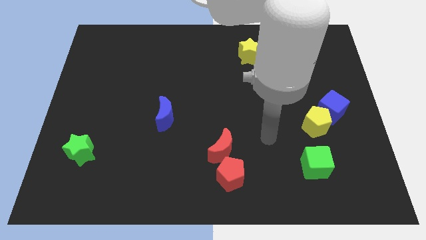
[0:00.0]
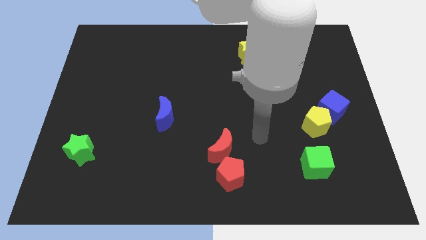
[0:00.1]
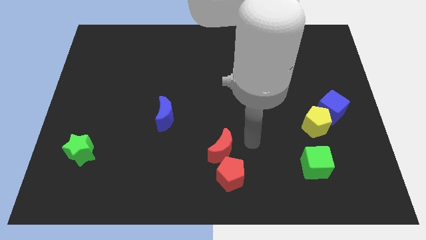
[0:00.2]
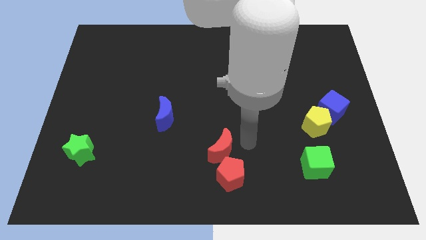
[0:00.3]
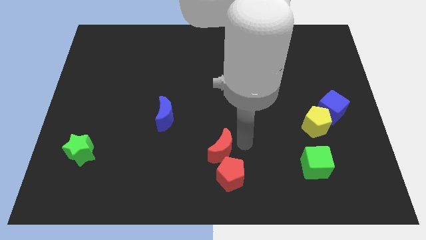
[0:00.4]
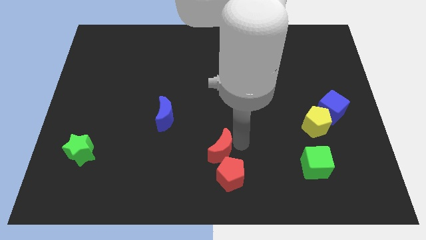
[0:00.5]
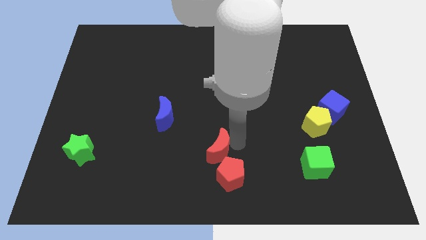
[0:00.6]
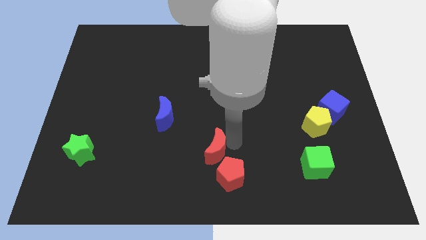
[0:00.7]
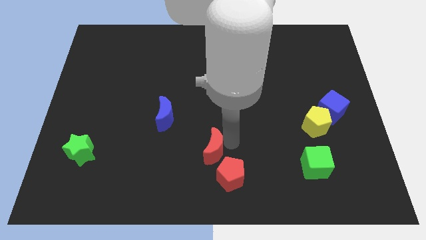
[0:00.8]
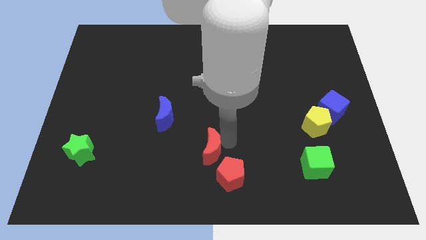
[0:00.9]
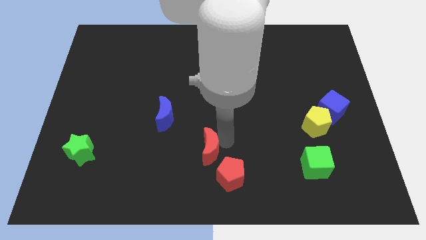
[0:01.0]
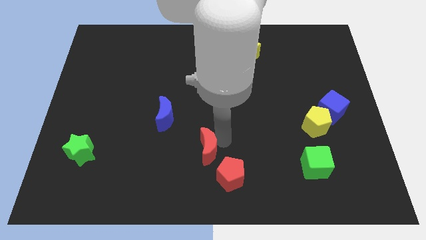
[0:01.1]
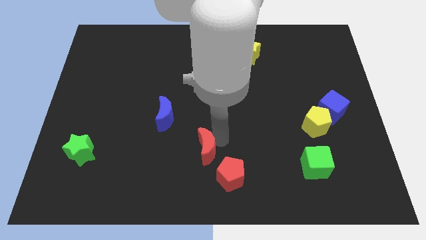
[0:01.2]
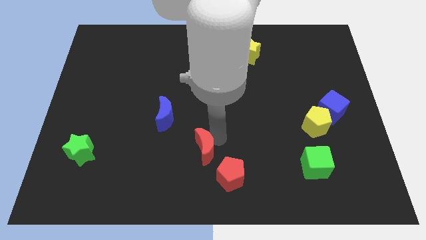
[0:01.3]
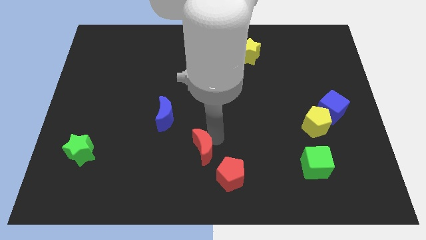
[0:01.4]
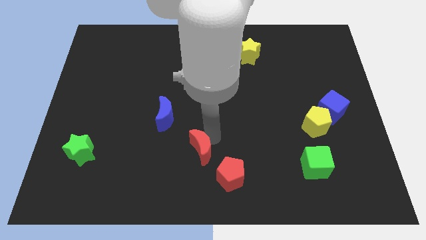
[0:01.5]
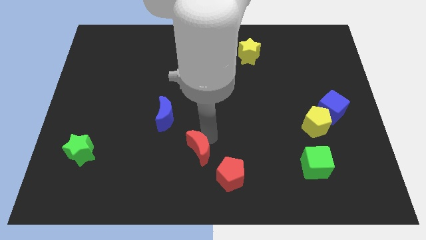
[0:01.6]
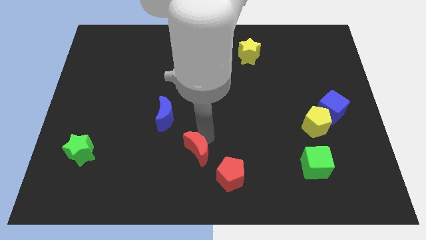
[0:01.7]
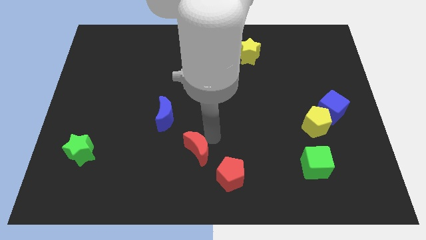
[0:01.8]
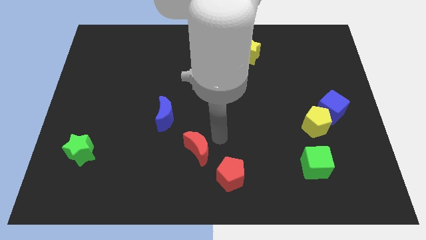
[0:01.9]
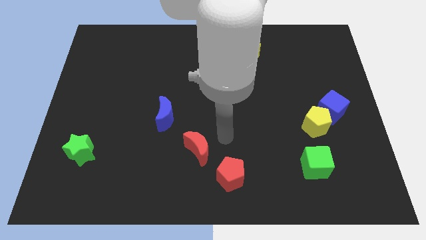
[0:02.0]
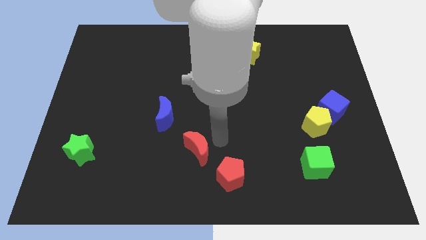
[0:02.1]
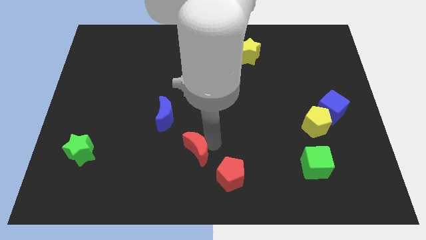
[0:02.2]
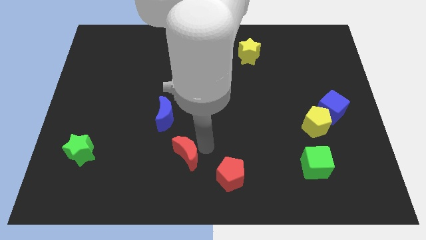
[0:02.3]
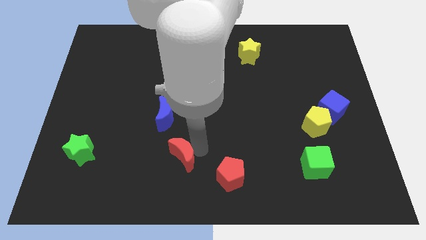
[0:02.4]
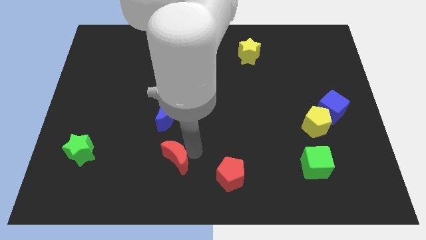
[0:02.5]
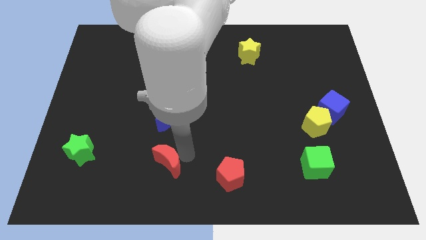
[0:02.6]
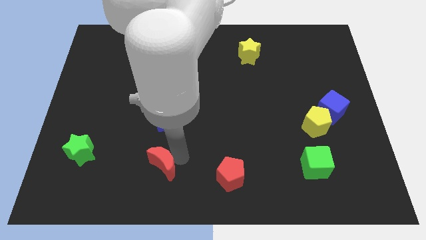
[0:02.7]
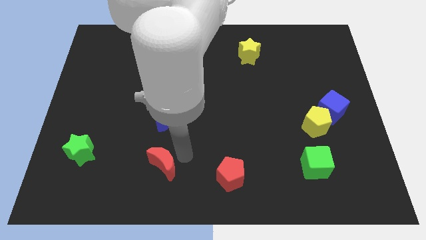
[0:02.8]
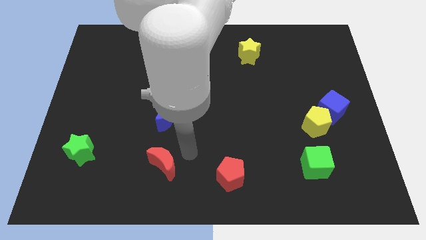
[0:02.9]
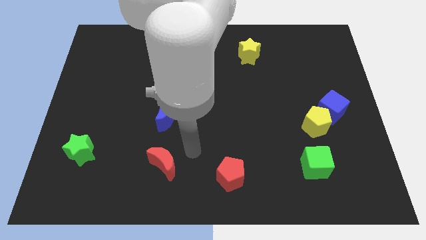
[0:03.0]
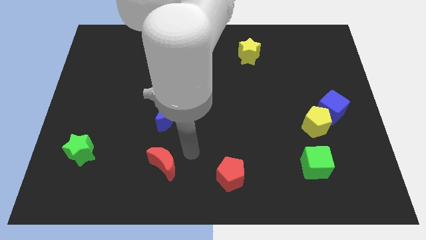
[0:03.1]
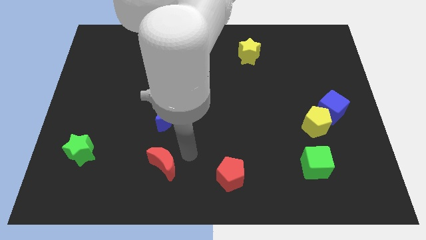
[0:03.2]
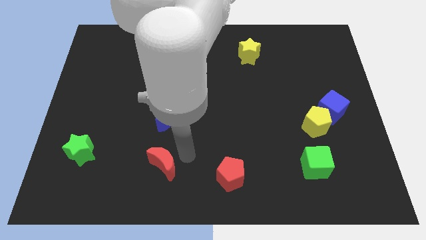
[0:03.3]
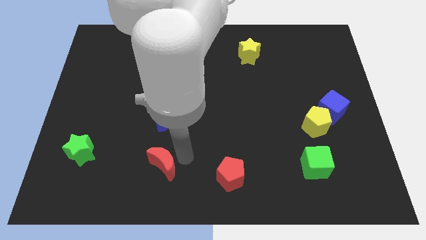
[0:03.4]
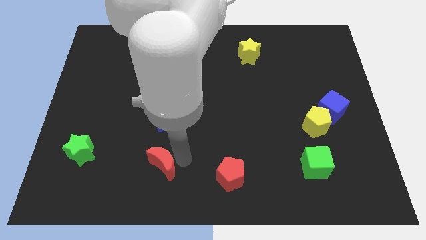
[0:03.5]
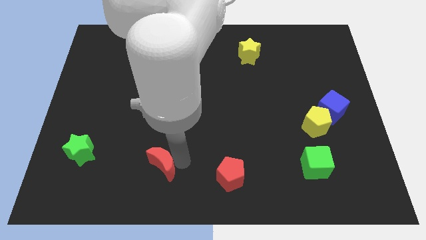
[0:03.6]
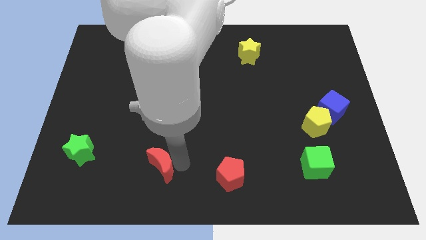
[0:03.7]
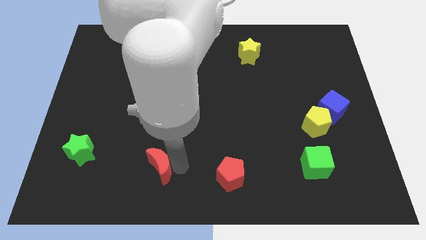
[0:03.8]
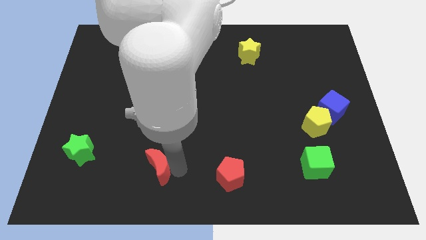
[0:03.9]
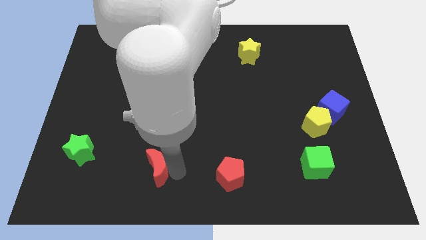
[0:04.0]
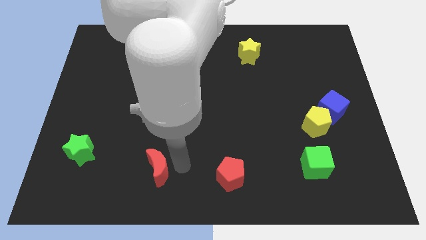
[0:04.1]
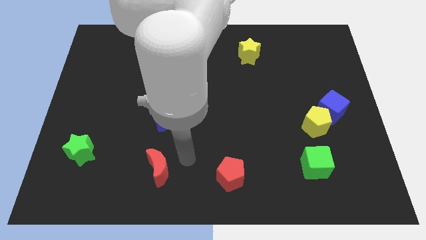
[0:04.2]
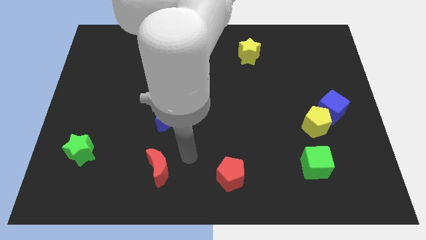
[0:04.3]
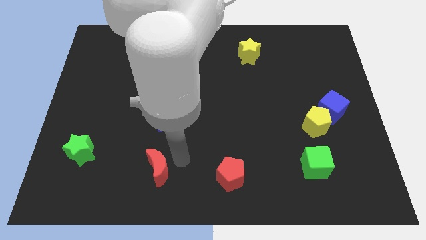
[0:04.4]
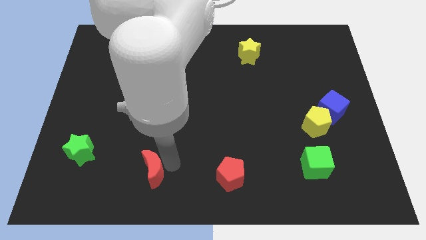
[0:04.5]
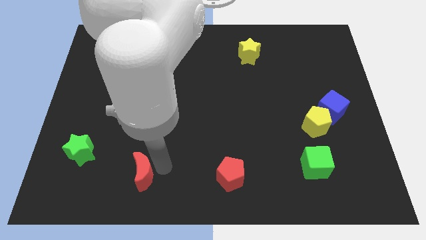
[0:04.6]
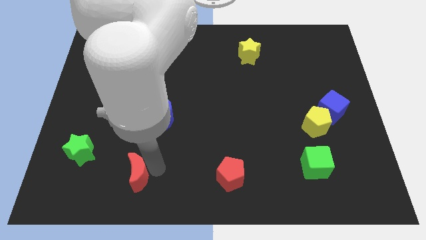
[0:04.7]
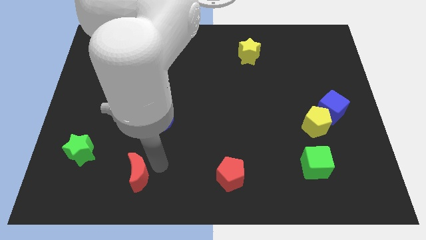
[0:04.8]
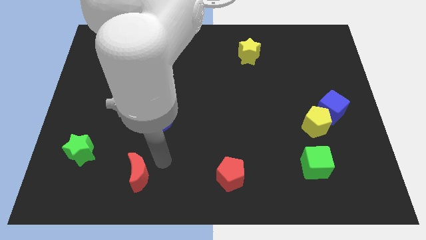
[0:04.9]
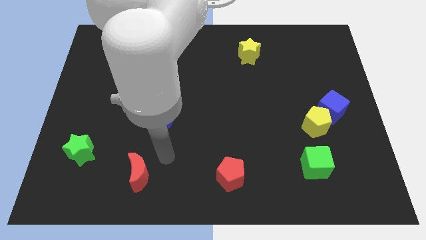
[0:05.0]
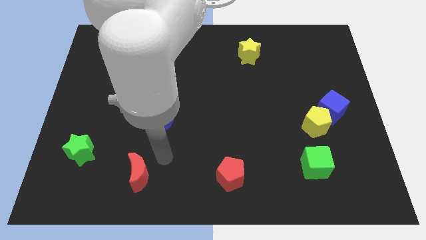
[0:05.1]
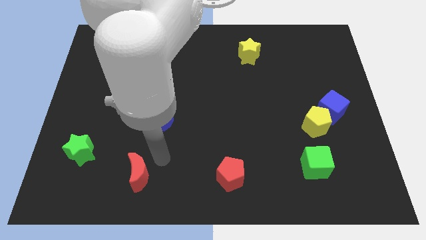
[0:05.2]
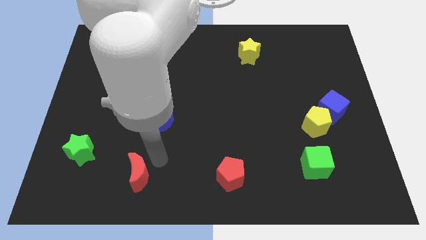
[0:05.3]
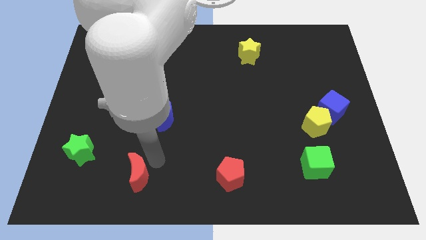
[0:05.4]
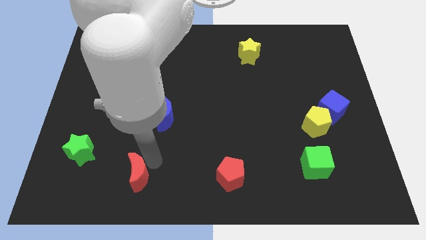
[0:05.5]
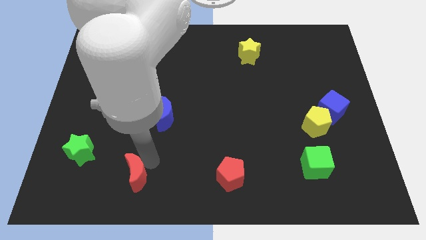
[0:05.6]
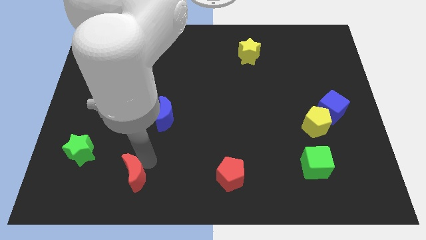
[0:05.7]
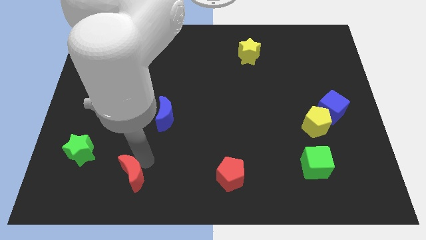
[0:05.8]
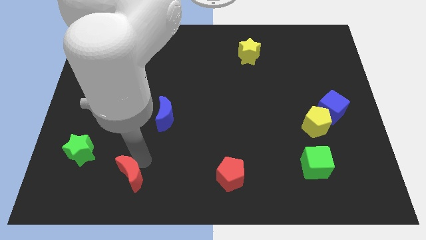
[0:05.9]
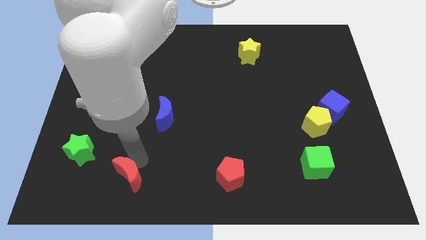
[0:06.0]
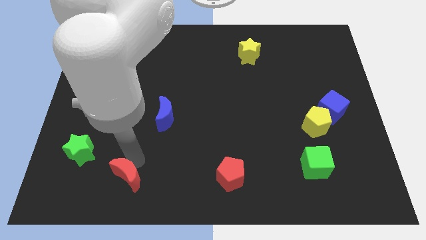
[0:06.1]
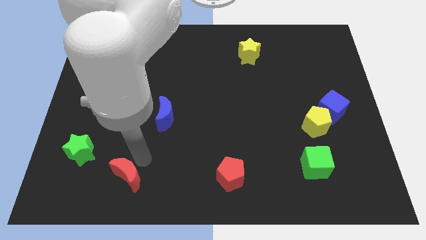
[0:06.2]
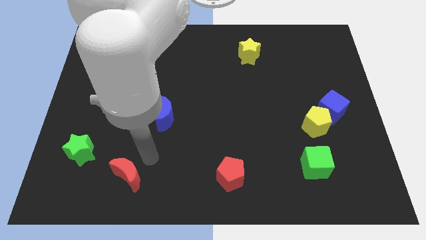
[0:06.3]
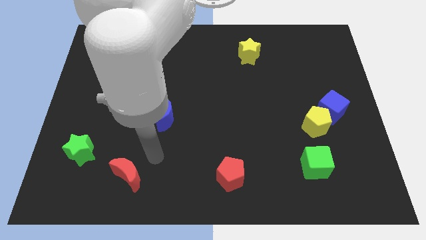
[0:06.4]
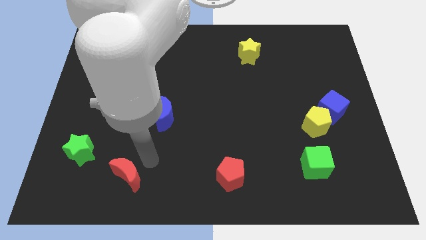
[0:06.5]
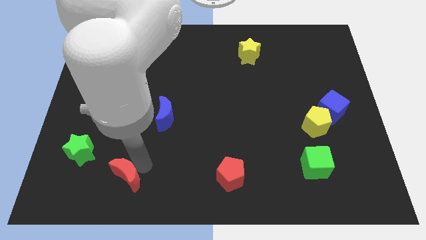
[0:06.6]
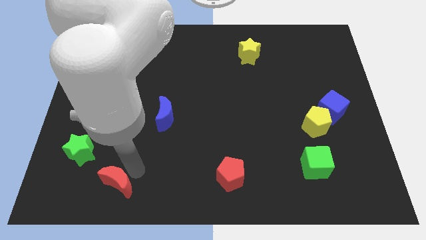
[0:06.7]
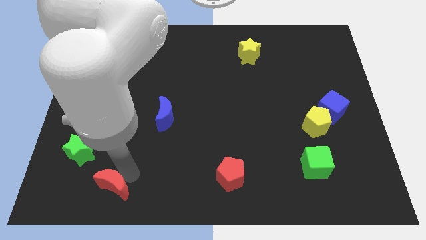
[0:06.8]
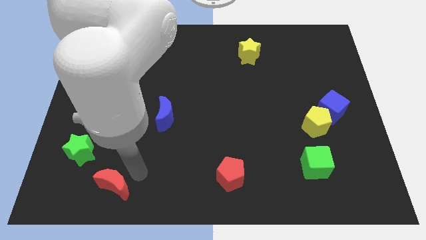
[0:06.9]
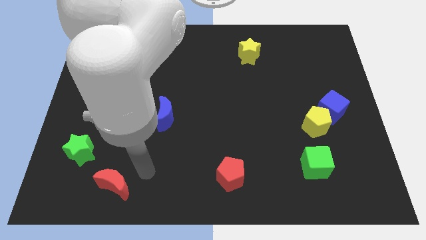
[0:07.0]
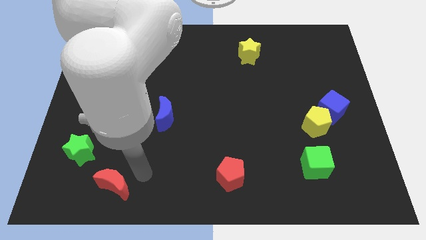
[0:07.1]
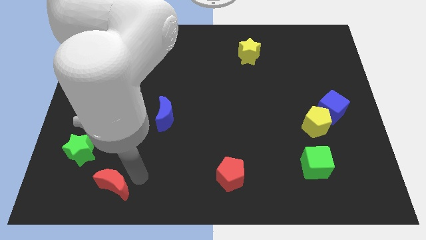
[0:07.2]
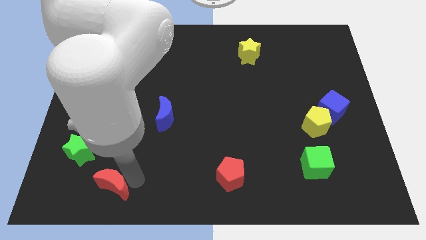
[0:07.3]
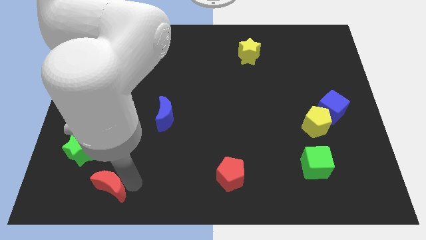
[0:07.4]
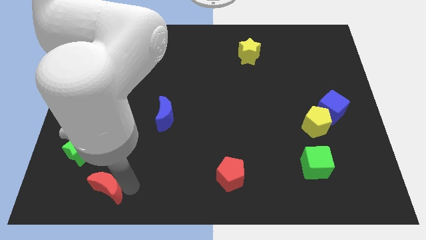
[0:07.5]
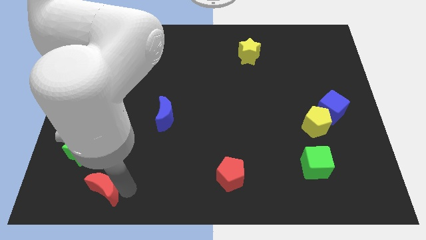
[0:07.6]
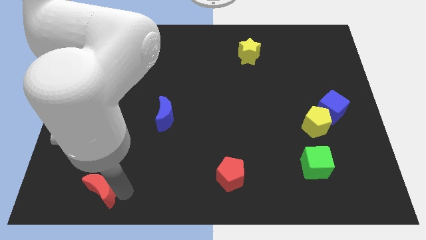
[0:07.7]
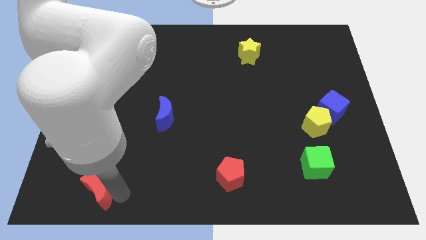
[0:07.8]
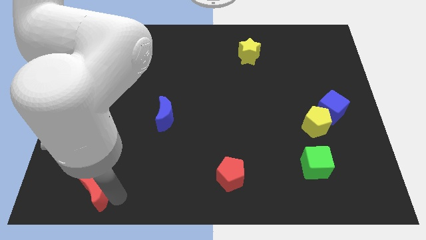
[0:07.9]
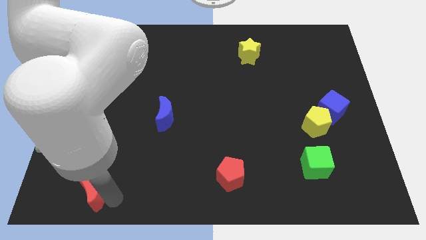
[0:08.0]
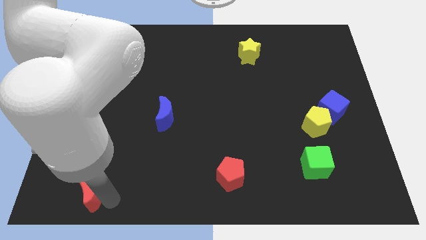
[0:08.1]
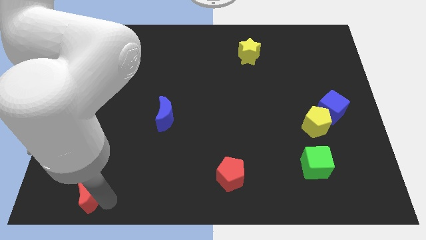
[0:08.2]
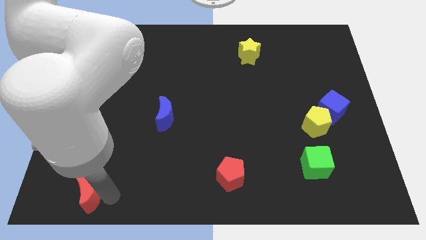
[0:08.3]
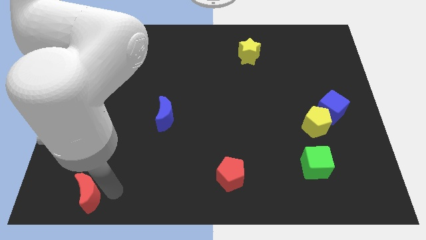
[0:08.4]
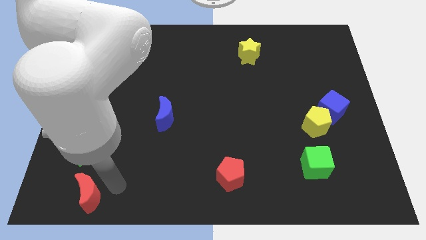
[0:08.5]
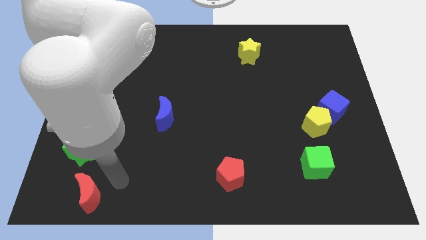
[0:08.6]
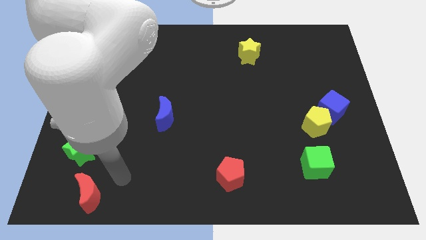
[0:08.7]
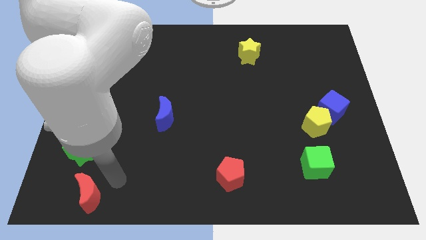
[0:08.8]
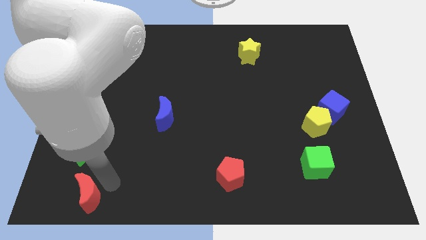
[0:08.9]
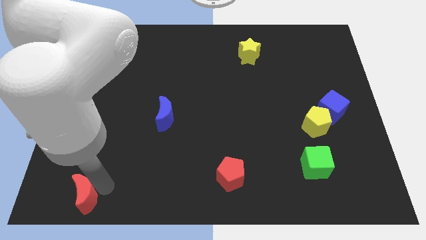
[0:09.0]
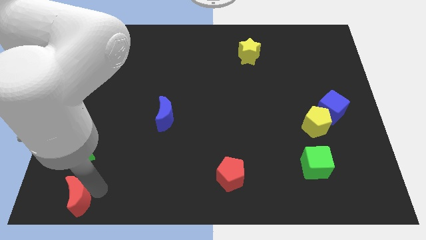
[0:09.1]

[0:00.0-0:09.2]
slide the red moon to the lower left corner
